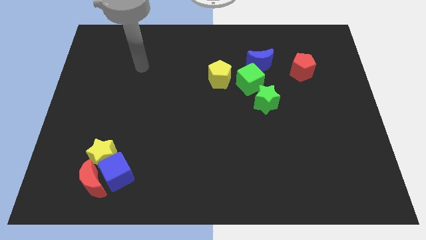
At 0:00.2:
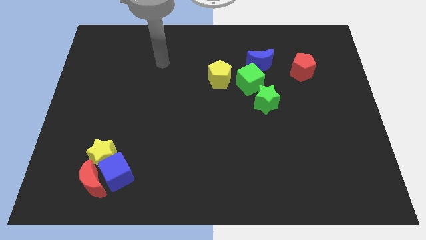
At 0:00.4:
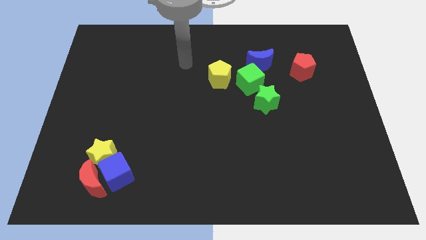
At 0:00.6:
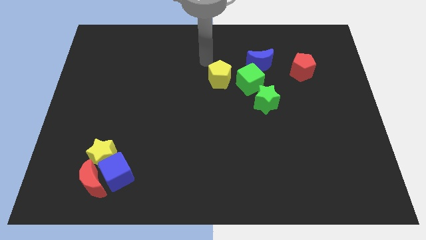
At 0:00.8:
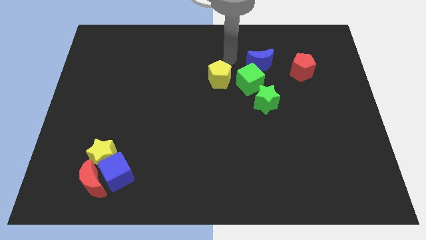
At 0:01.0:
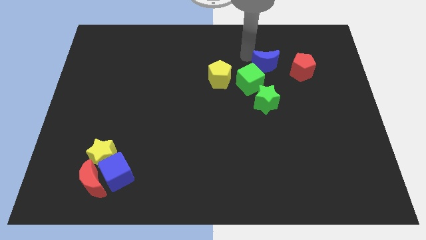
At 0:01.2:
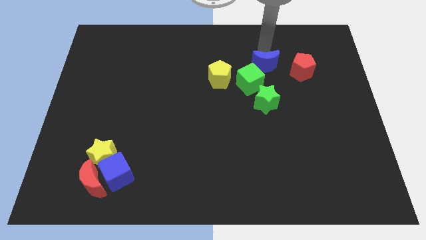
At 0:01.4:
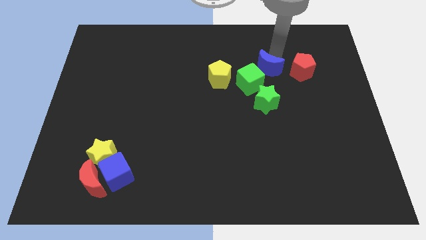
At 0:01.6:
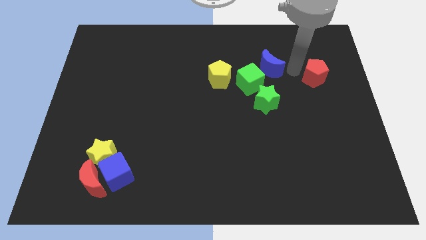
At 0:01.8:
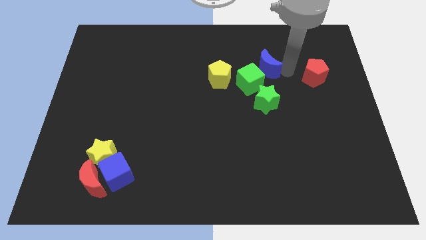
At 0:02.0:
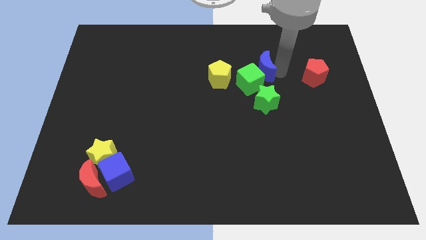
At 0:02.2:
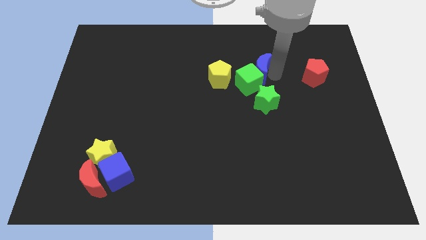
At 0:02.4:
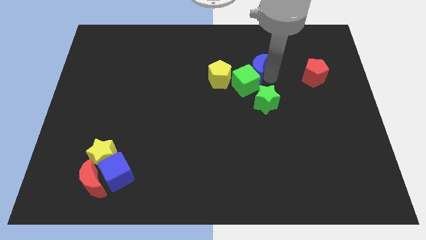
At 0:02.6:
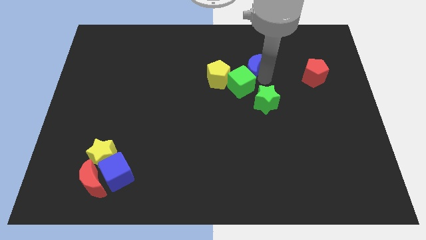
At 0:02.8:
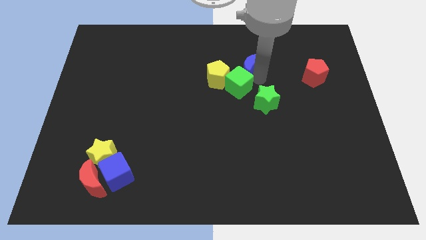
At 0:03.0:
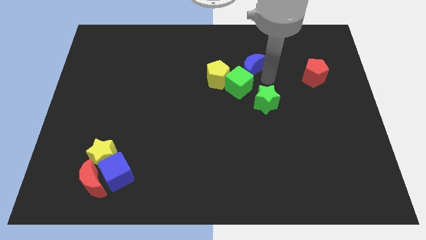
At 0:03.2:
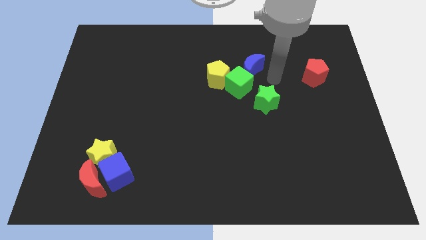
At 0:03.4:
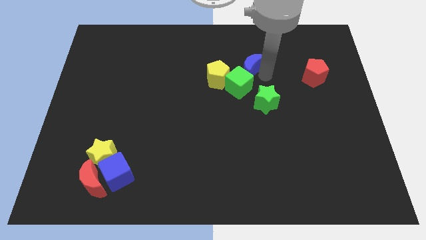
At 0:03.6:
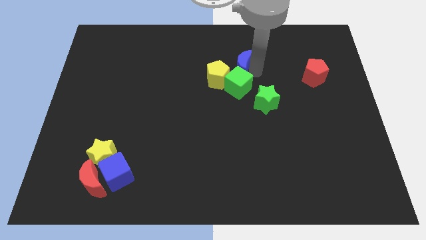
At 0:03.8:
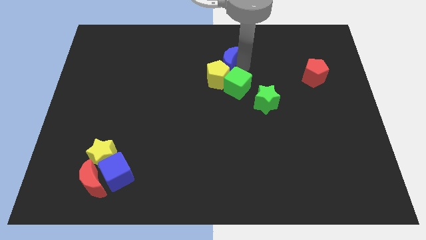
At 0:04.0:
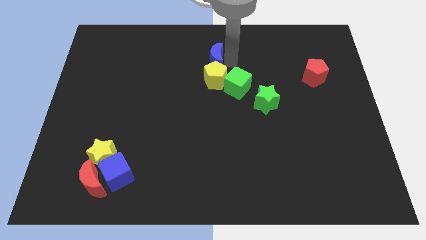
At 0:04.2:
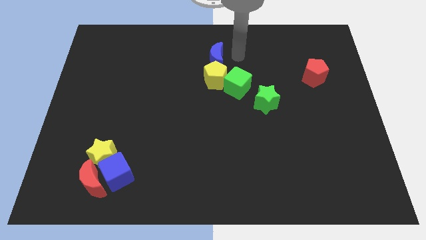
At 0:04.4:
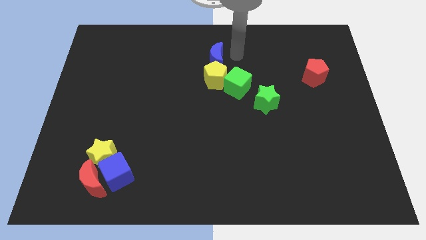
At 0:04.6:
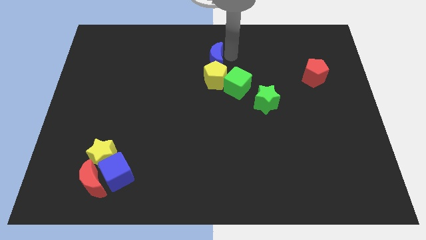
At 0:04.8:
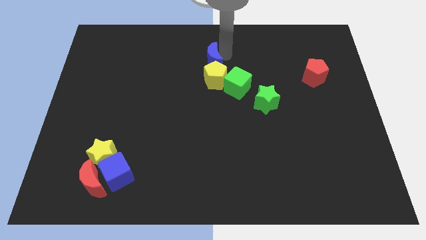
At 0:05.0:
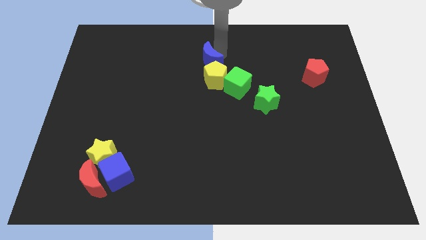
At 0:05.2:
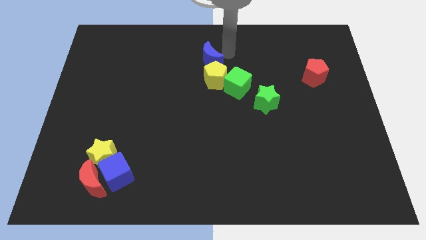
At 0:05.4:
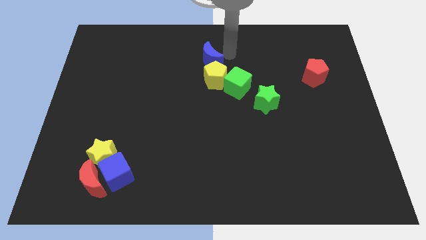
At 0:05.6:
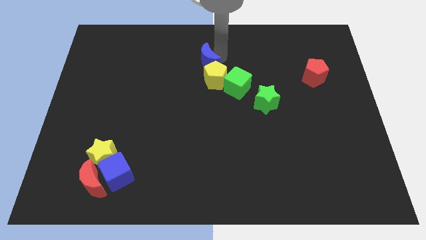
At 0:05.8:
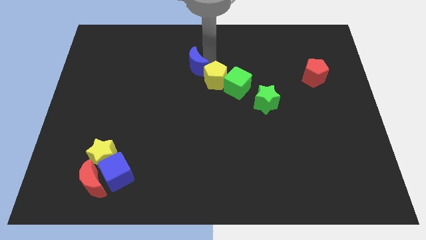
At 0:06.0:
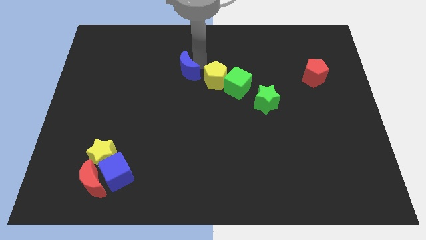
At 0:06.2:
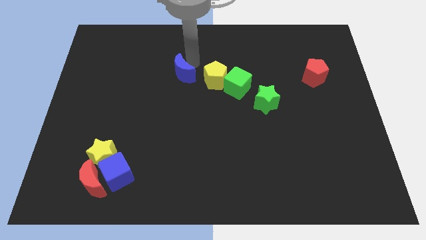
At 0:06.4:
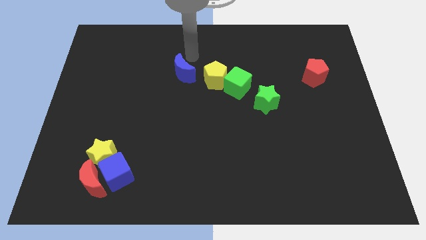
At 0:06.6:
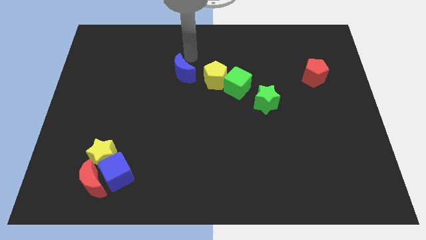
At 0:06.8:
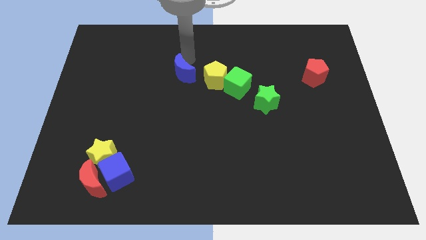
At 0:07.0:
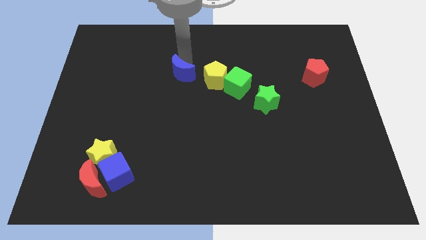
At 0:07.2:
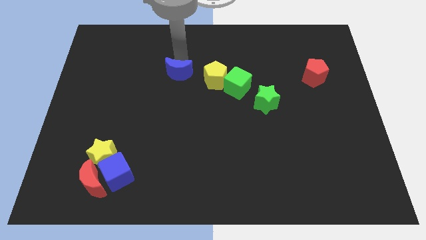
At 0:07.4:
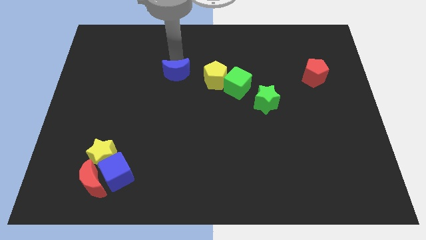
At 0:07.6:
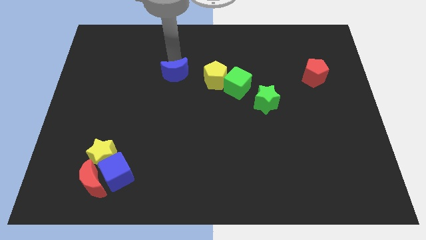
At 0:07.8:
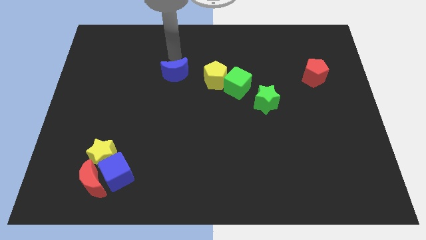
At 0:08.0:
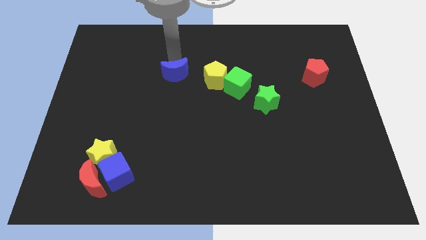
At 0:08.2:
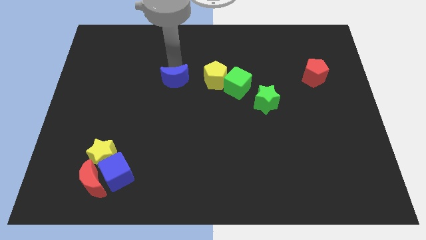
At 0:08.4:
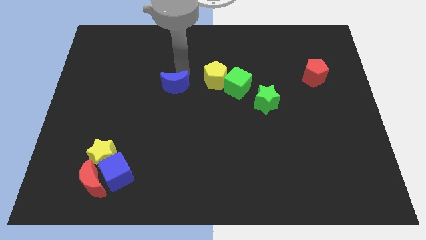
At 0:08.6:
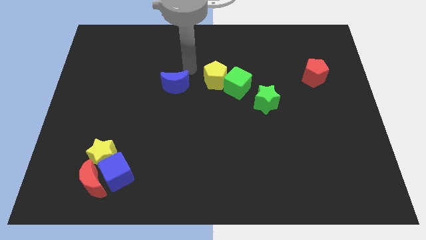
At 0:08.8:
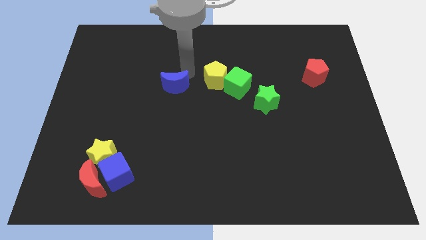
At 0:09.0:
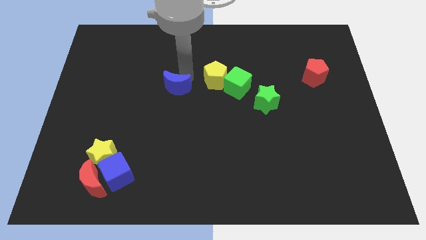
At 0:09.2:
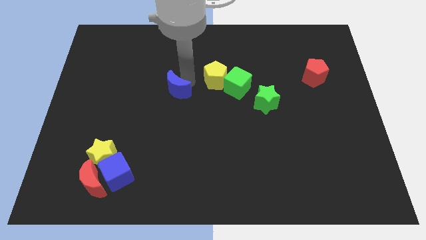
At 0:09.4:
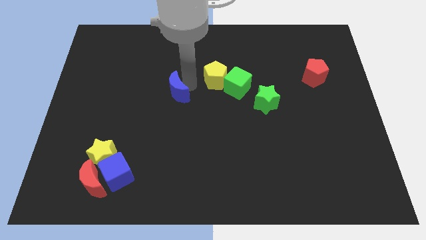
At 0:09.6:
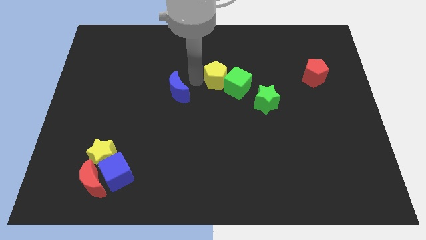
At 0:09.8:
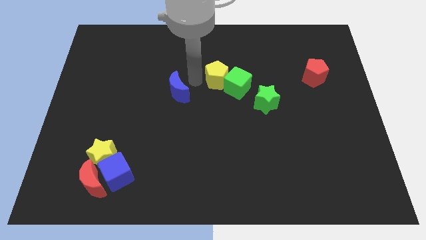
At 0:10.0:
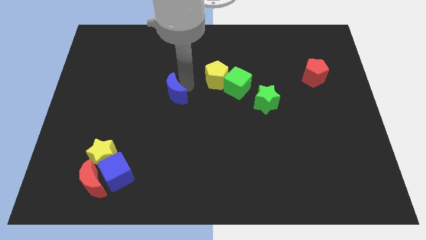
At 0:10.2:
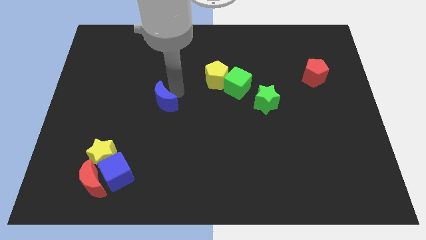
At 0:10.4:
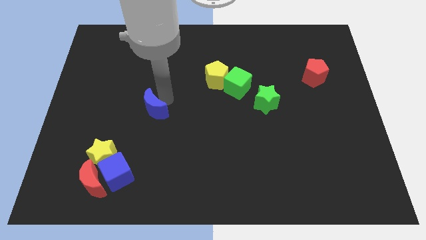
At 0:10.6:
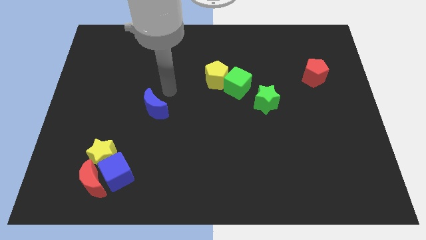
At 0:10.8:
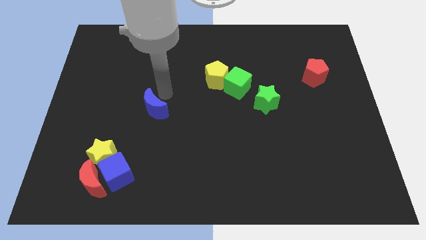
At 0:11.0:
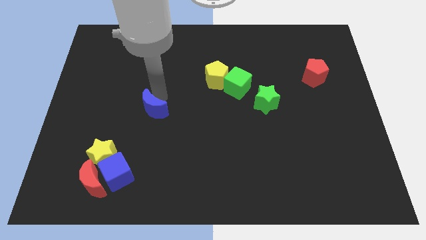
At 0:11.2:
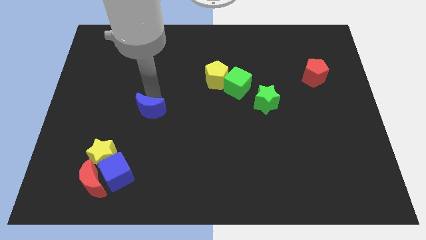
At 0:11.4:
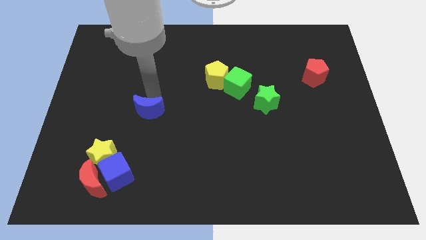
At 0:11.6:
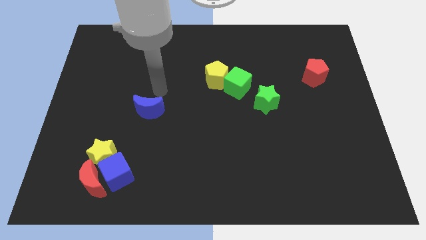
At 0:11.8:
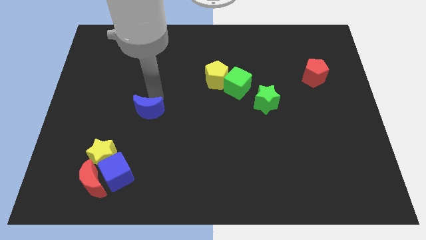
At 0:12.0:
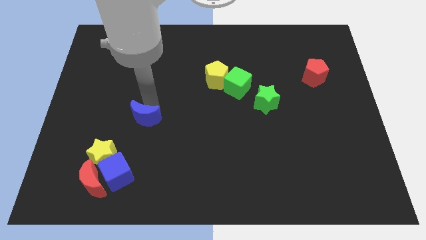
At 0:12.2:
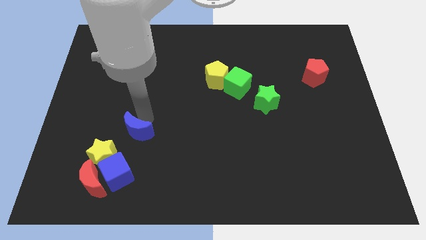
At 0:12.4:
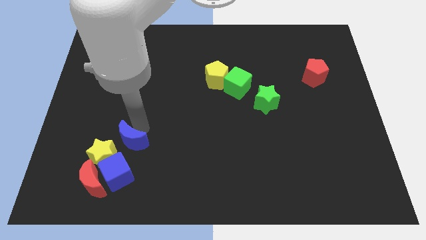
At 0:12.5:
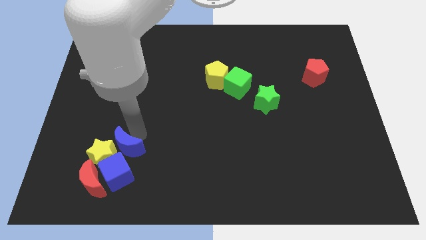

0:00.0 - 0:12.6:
put the blue moon next to the yellow star
